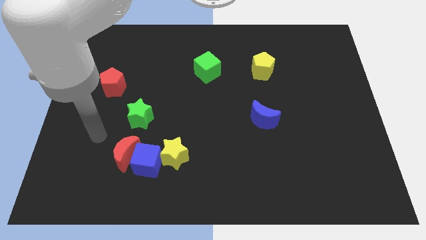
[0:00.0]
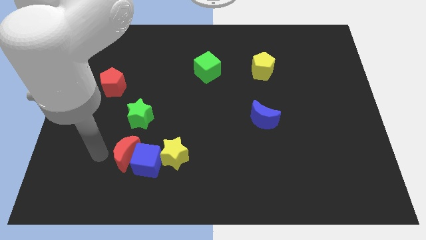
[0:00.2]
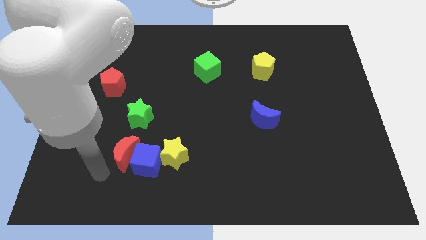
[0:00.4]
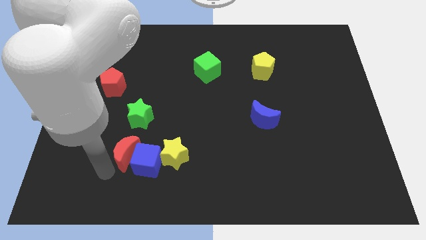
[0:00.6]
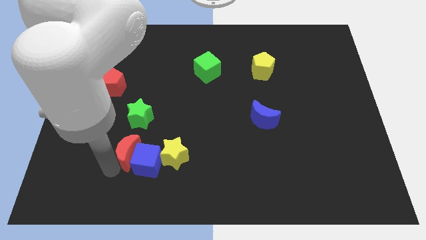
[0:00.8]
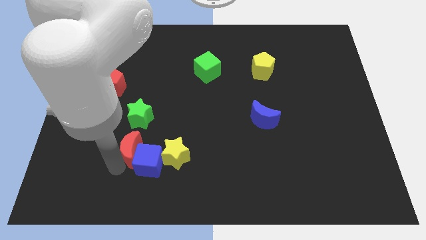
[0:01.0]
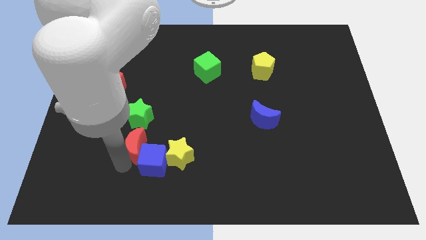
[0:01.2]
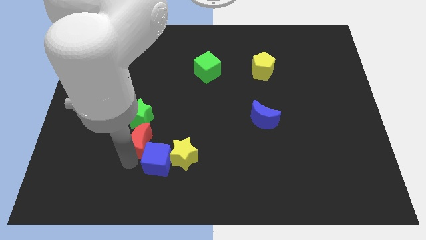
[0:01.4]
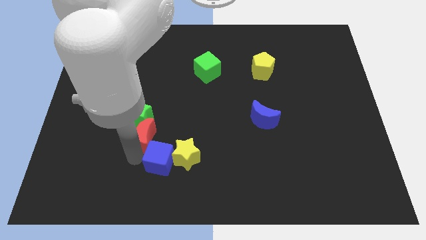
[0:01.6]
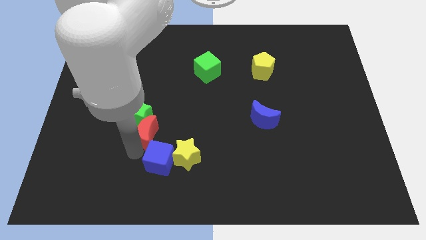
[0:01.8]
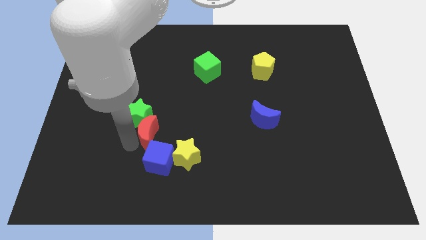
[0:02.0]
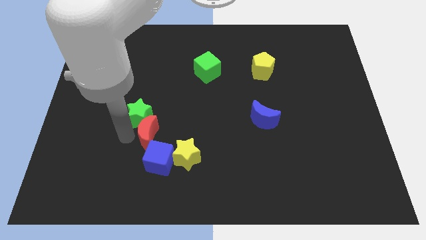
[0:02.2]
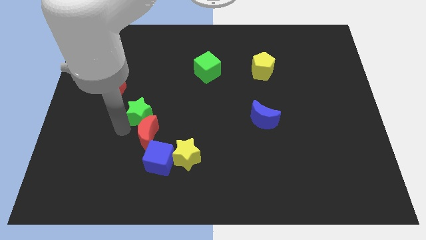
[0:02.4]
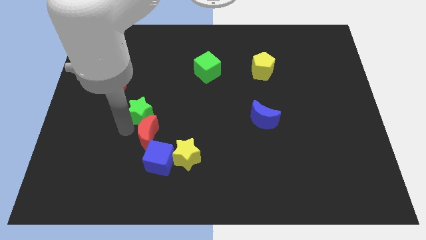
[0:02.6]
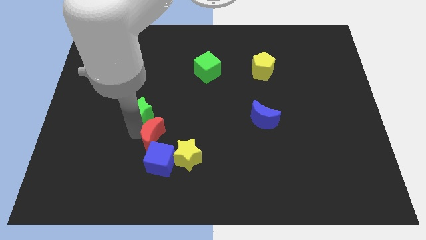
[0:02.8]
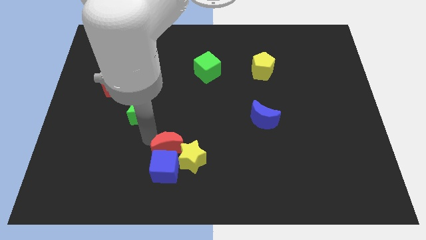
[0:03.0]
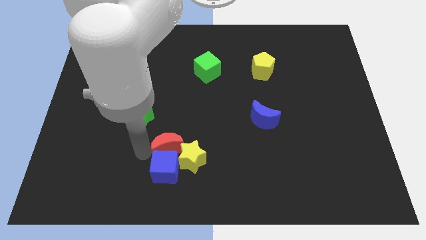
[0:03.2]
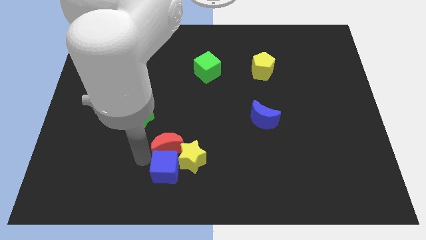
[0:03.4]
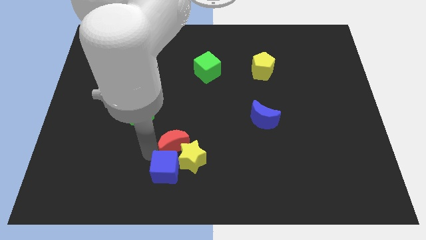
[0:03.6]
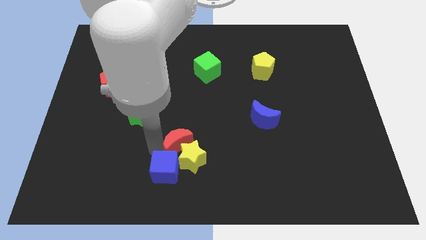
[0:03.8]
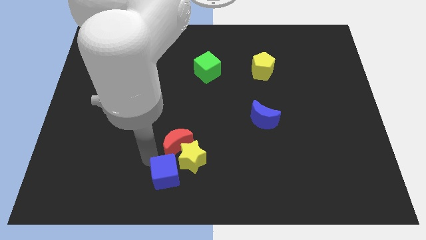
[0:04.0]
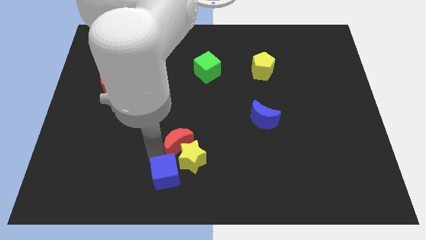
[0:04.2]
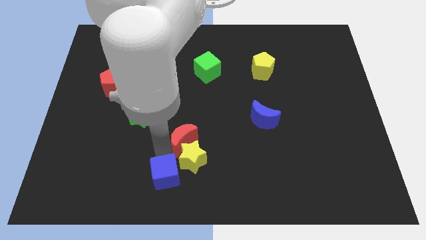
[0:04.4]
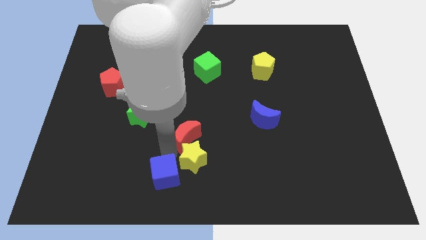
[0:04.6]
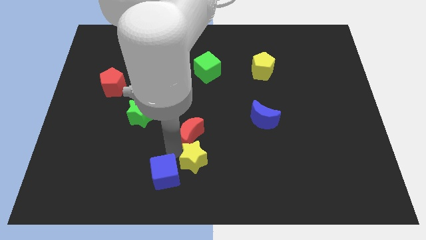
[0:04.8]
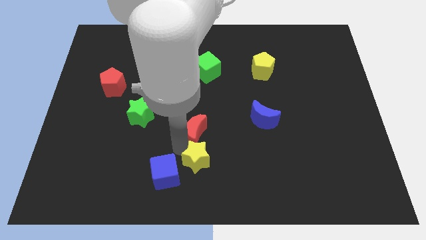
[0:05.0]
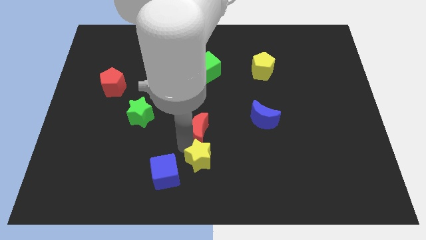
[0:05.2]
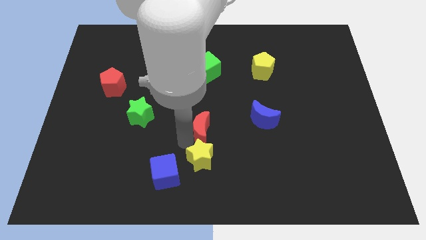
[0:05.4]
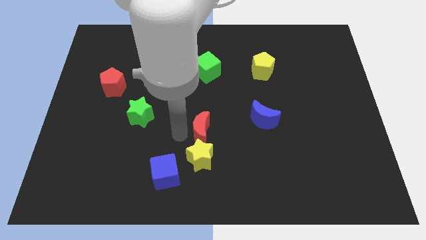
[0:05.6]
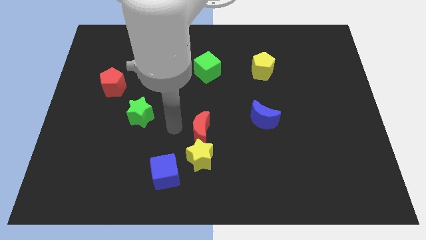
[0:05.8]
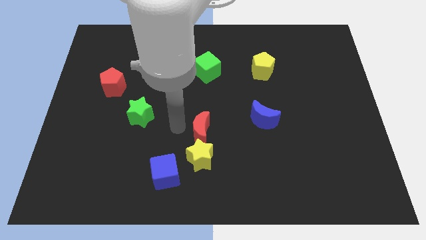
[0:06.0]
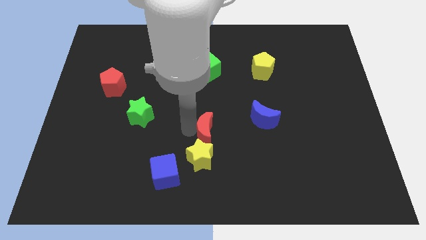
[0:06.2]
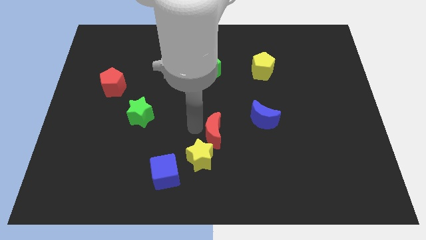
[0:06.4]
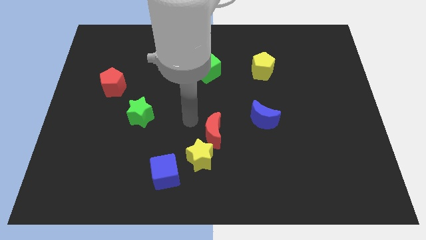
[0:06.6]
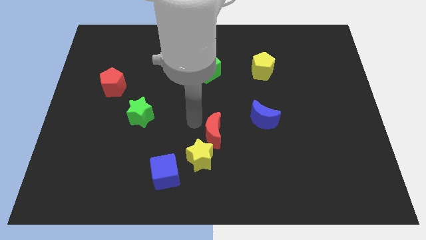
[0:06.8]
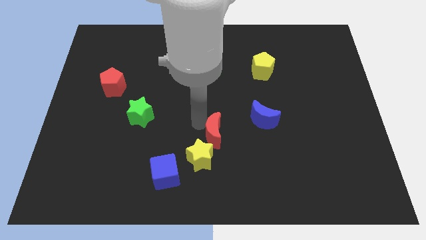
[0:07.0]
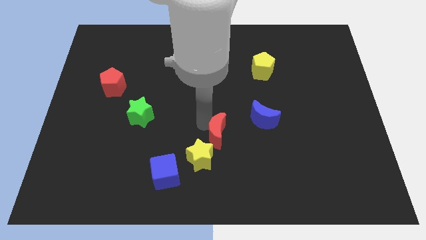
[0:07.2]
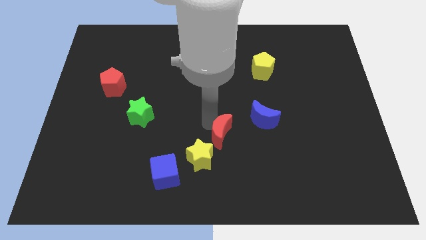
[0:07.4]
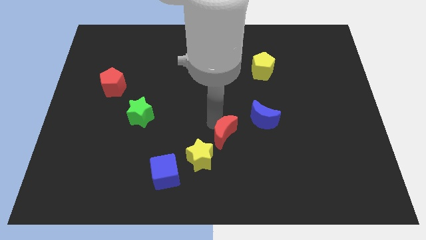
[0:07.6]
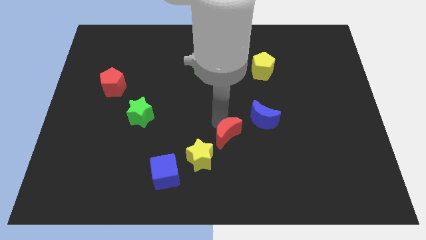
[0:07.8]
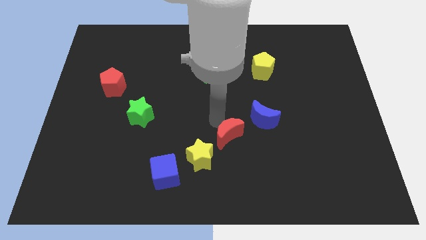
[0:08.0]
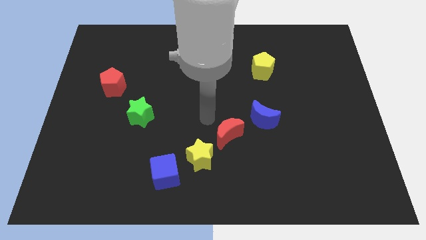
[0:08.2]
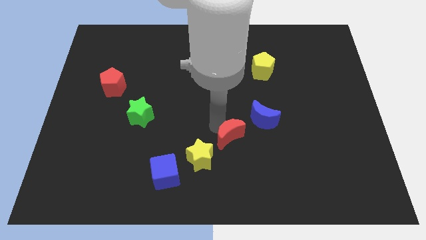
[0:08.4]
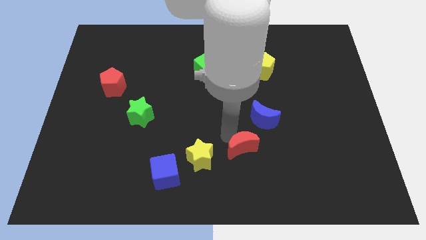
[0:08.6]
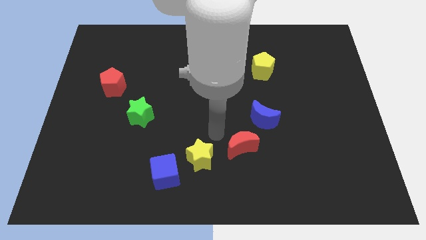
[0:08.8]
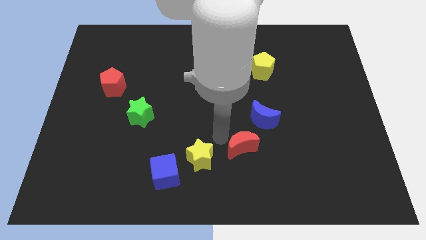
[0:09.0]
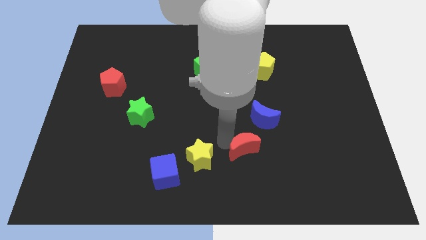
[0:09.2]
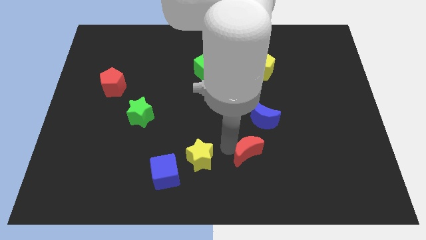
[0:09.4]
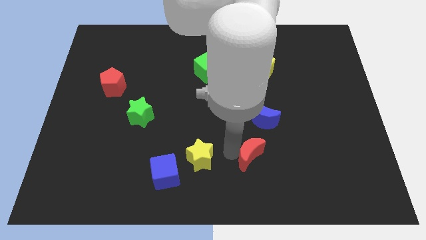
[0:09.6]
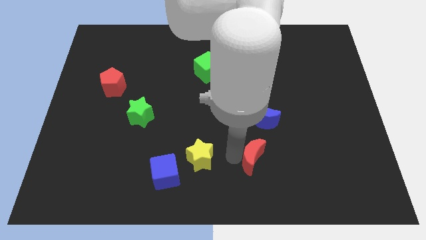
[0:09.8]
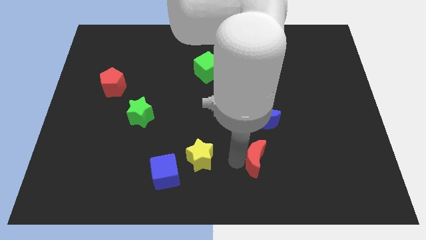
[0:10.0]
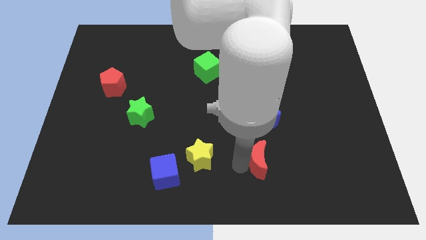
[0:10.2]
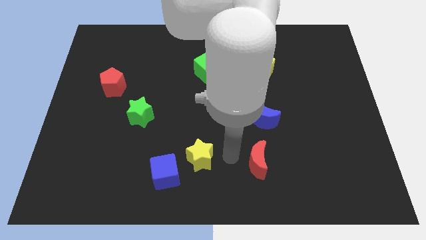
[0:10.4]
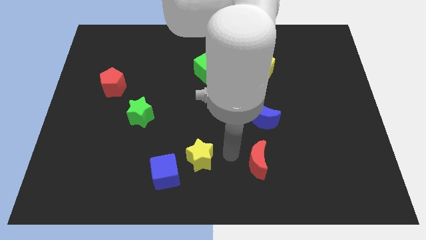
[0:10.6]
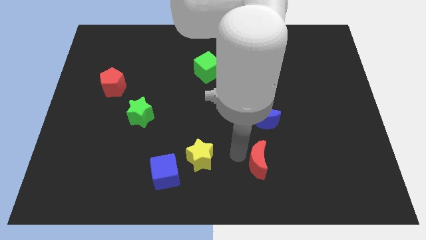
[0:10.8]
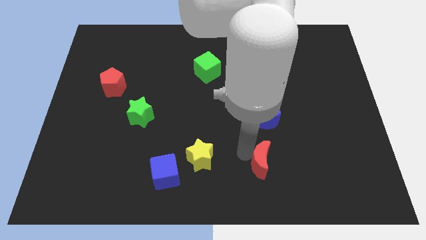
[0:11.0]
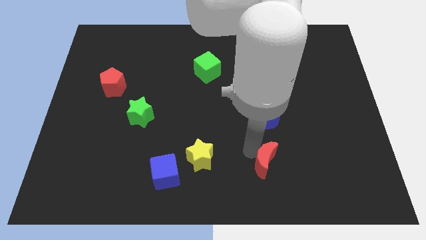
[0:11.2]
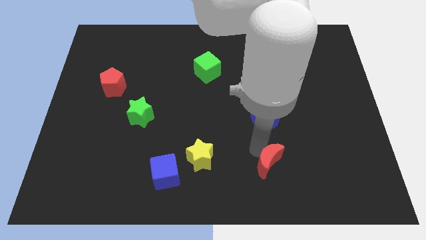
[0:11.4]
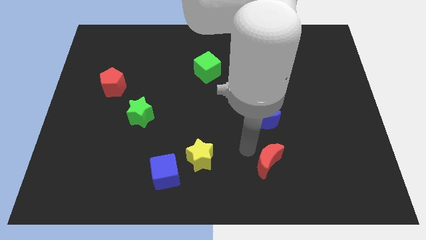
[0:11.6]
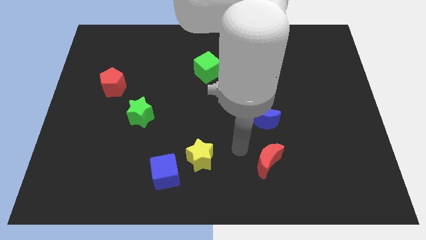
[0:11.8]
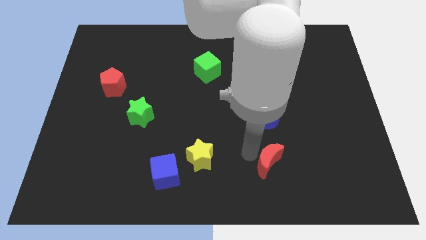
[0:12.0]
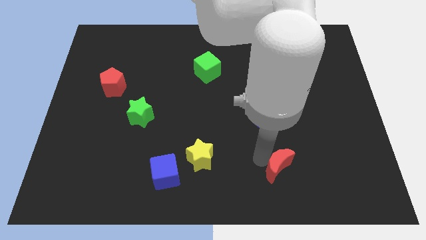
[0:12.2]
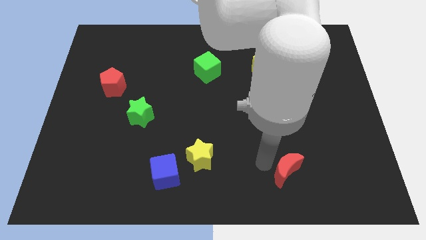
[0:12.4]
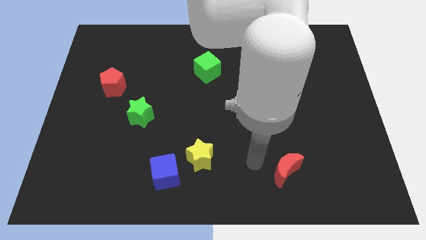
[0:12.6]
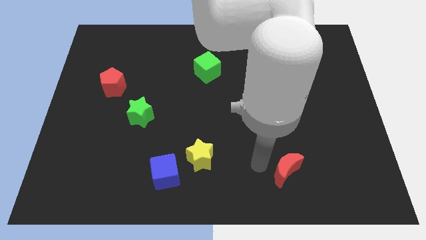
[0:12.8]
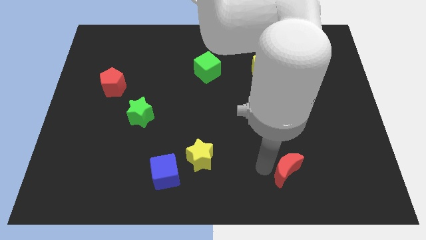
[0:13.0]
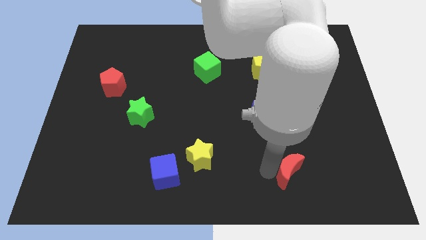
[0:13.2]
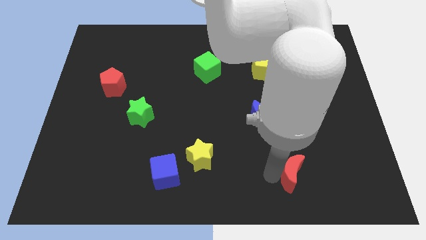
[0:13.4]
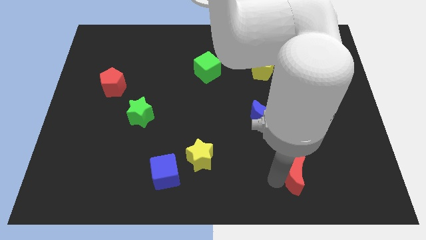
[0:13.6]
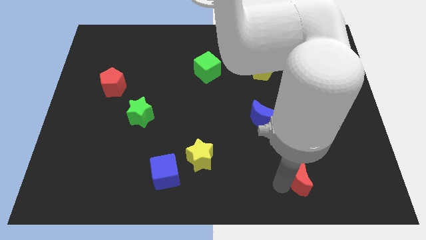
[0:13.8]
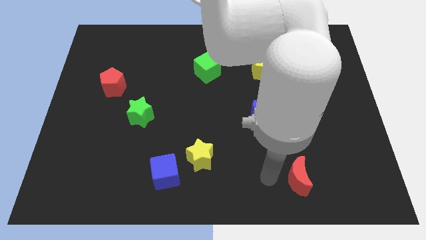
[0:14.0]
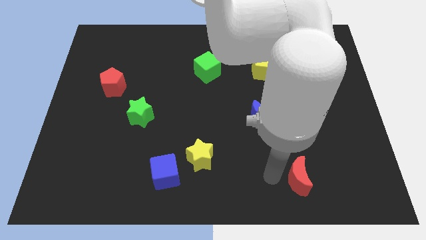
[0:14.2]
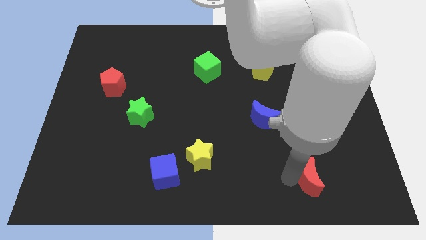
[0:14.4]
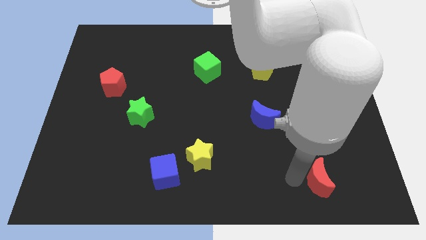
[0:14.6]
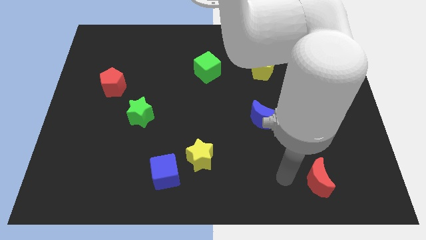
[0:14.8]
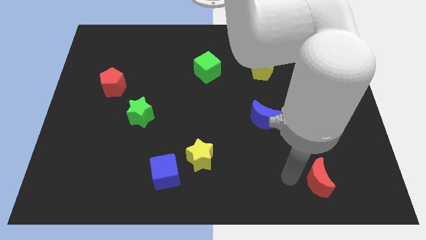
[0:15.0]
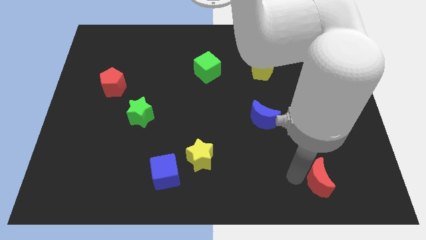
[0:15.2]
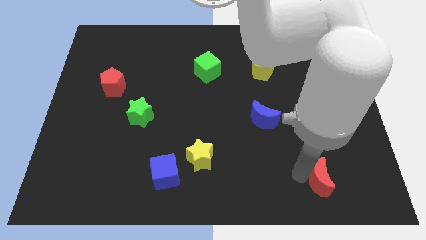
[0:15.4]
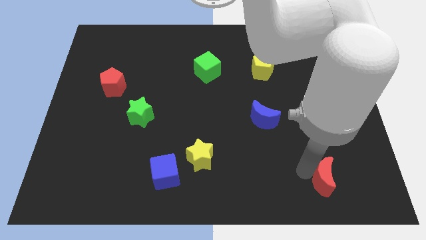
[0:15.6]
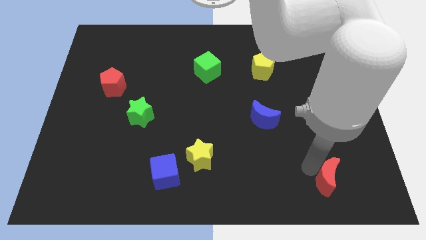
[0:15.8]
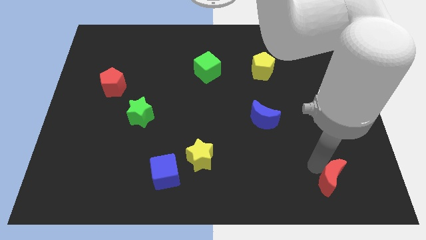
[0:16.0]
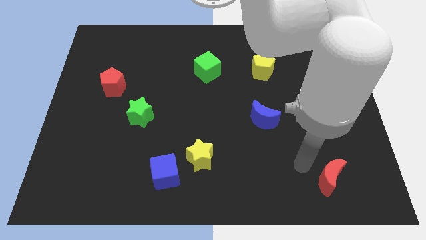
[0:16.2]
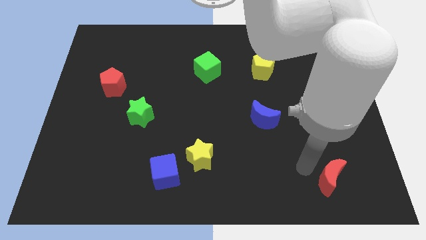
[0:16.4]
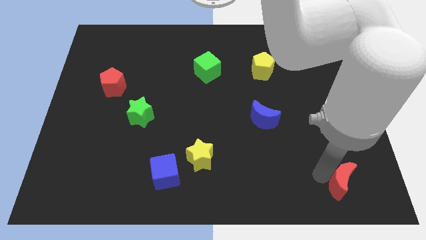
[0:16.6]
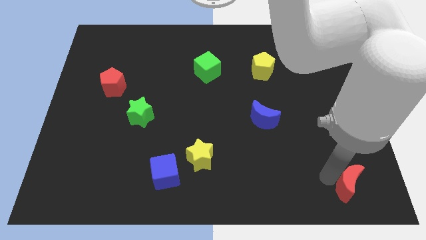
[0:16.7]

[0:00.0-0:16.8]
push the red moon to the bottom right corner
